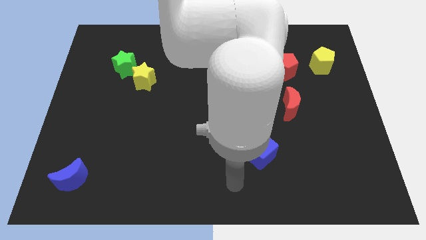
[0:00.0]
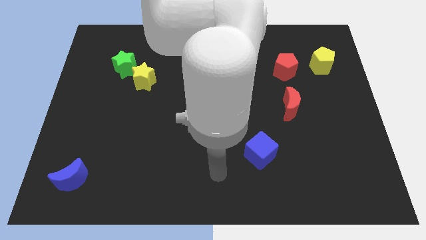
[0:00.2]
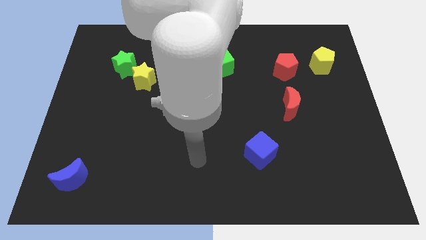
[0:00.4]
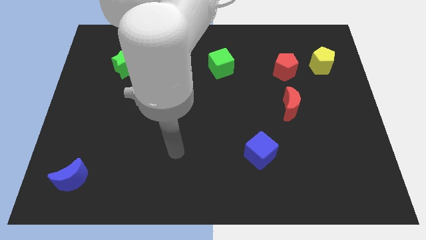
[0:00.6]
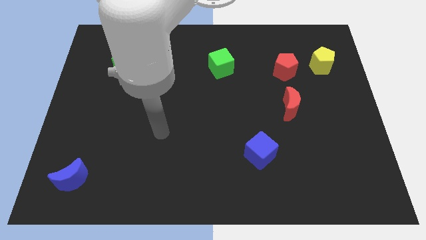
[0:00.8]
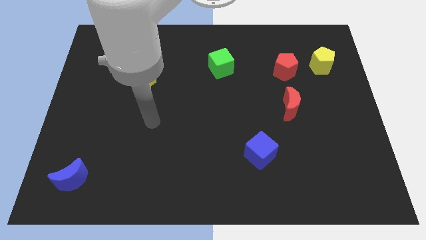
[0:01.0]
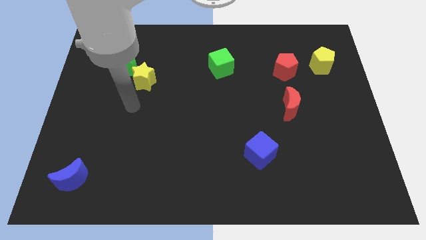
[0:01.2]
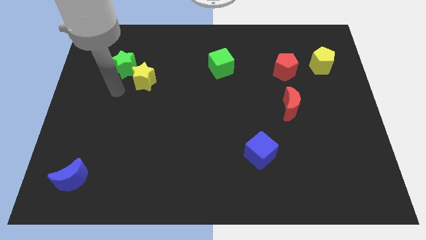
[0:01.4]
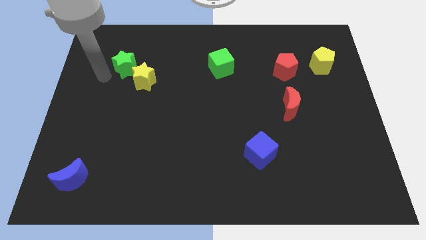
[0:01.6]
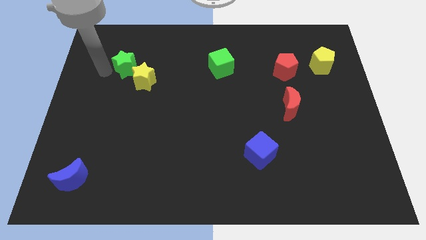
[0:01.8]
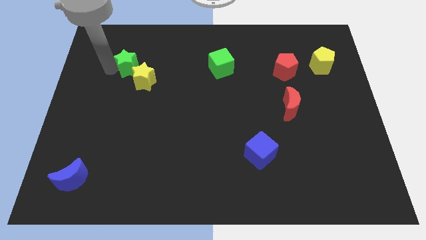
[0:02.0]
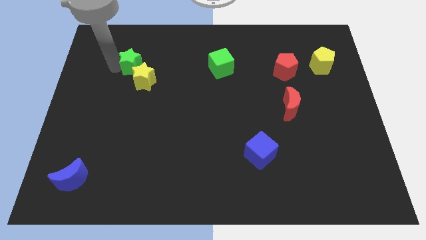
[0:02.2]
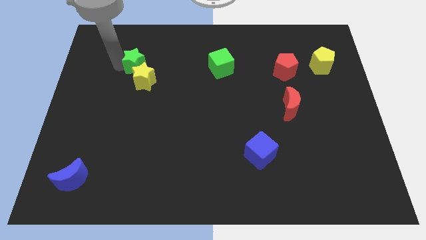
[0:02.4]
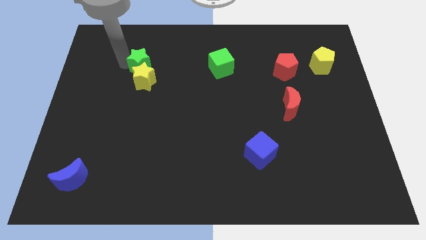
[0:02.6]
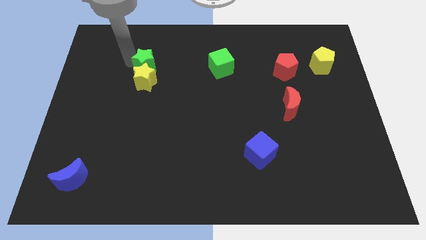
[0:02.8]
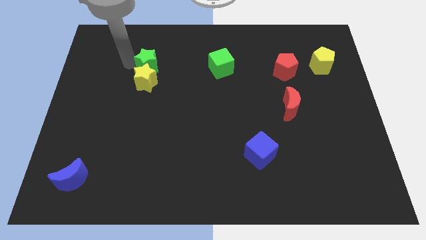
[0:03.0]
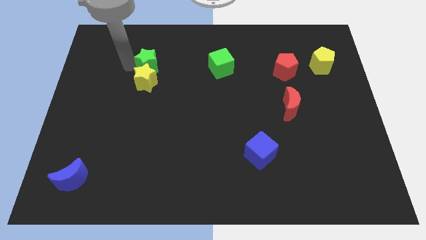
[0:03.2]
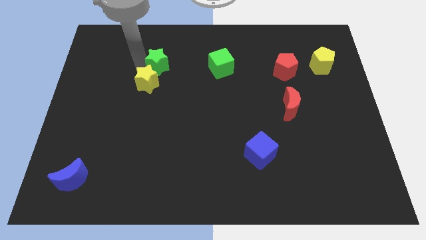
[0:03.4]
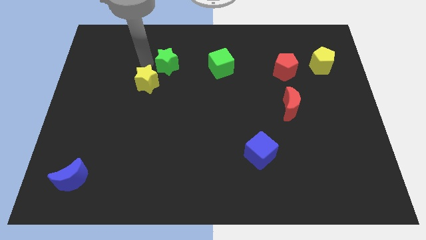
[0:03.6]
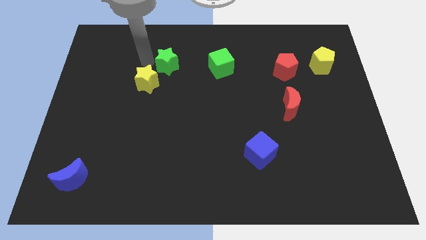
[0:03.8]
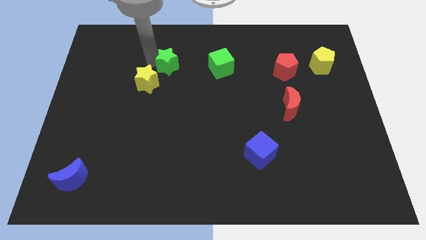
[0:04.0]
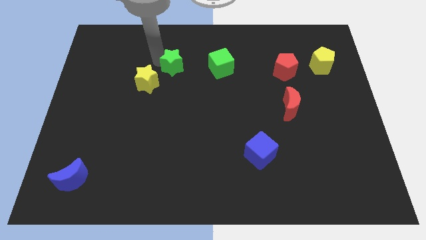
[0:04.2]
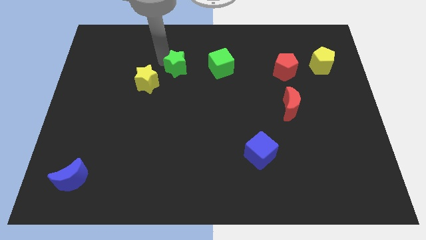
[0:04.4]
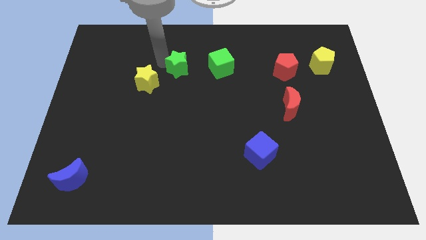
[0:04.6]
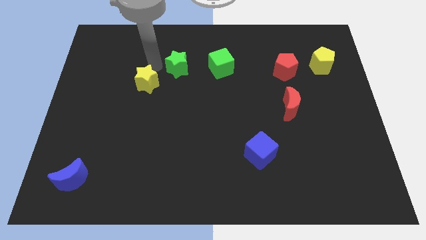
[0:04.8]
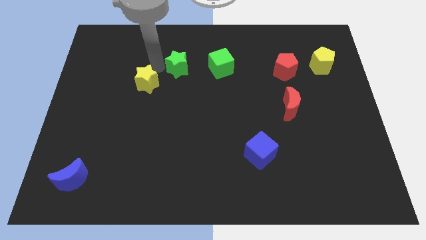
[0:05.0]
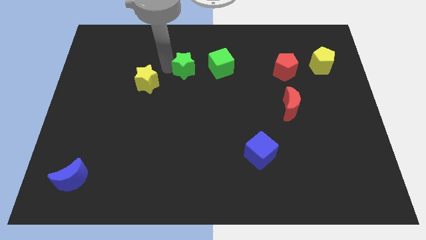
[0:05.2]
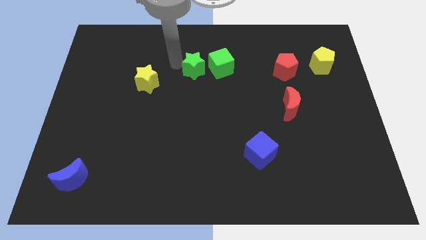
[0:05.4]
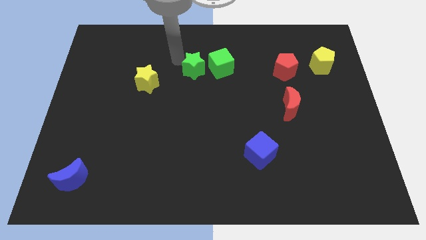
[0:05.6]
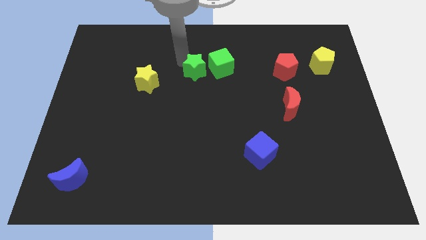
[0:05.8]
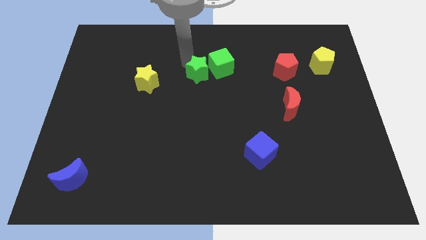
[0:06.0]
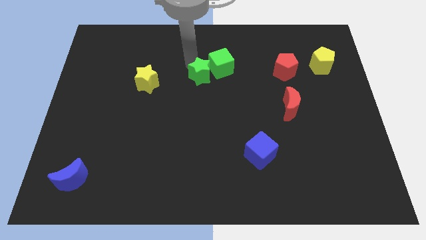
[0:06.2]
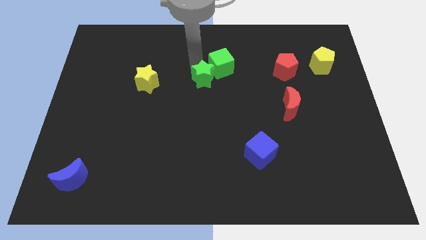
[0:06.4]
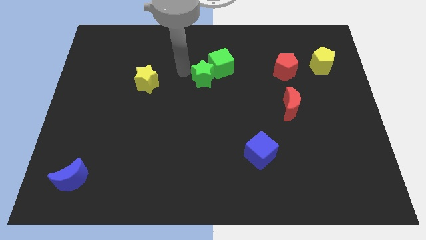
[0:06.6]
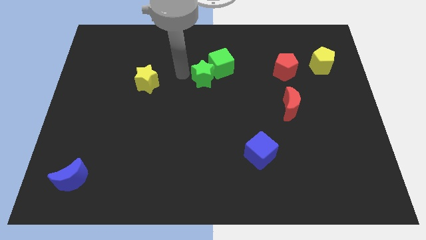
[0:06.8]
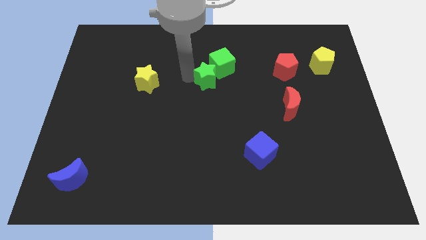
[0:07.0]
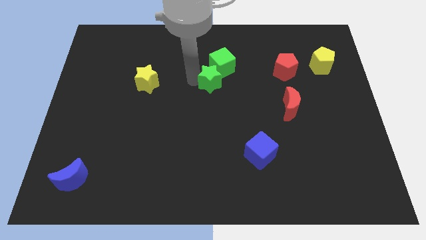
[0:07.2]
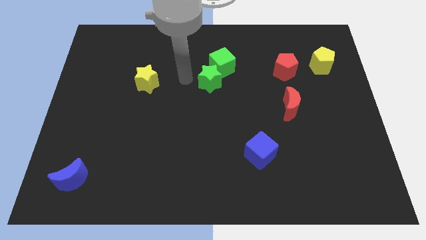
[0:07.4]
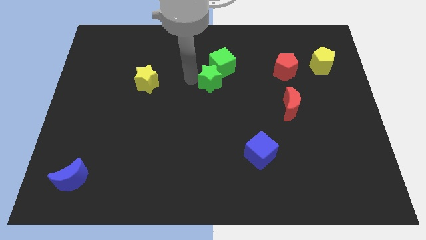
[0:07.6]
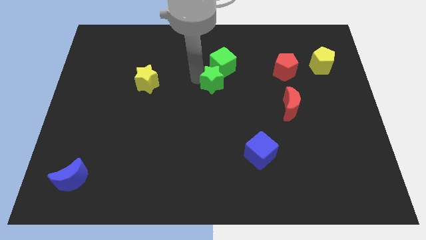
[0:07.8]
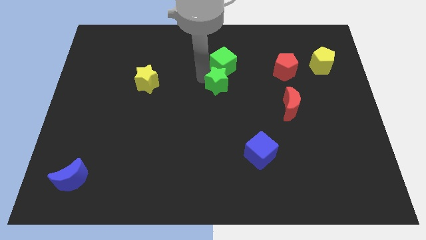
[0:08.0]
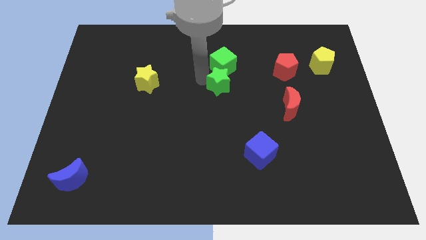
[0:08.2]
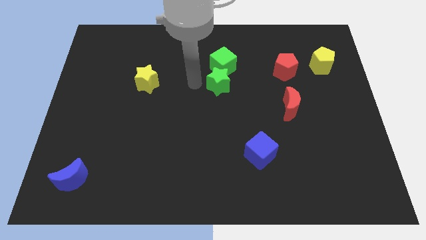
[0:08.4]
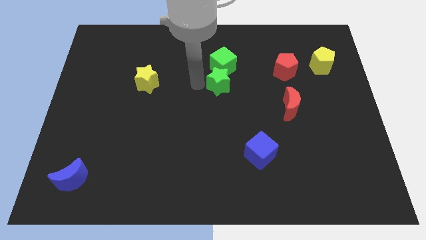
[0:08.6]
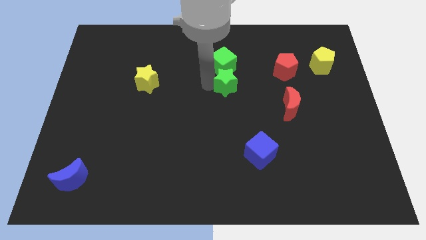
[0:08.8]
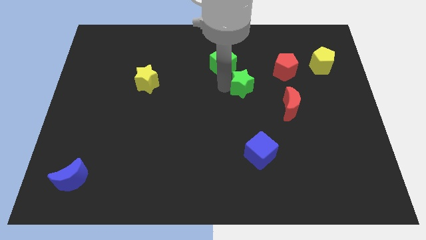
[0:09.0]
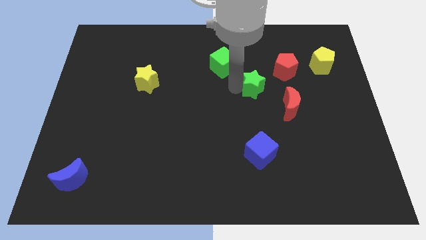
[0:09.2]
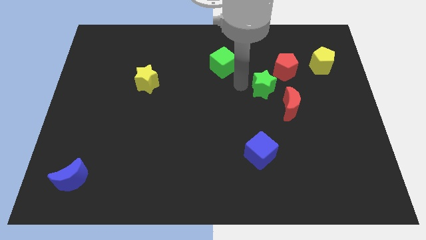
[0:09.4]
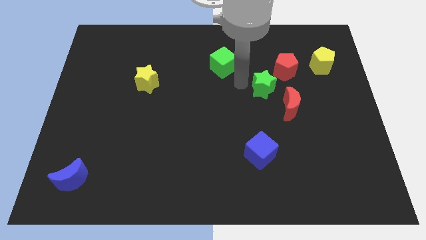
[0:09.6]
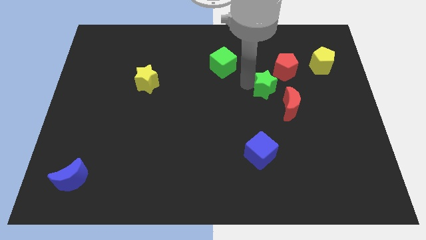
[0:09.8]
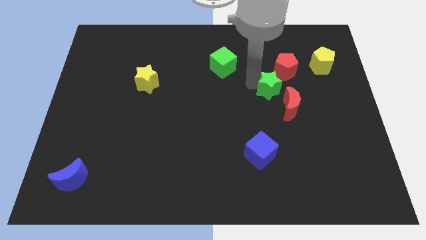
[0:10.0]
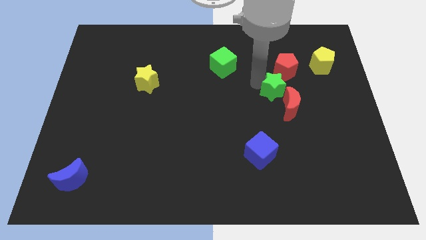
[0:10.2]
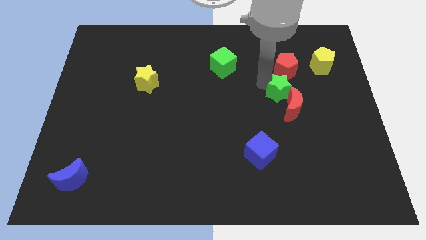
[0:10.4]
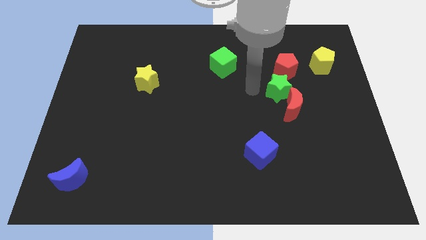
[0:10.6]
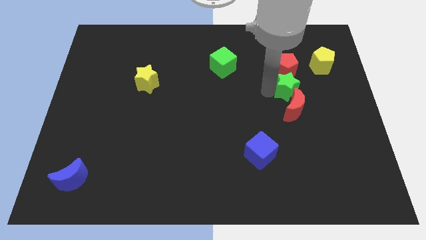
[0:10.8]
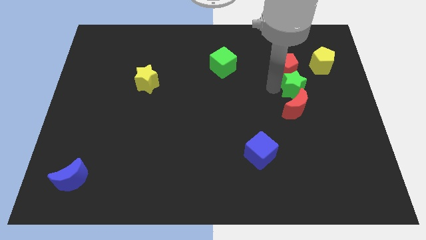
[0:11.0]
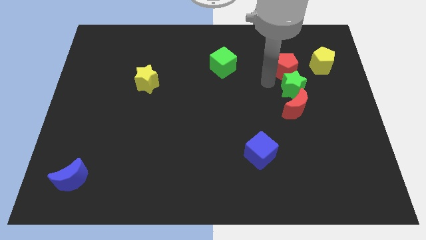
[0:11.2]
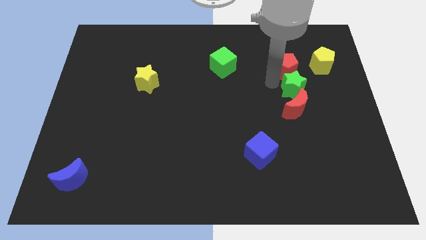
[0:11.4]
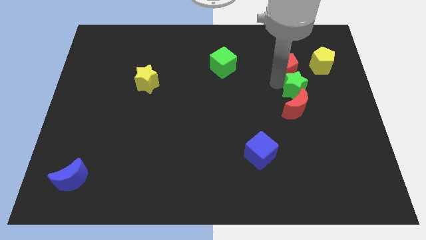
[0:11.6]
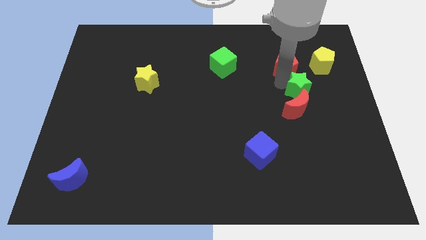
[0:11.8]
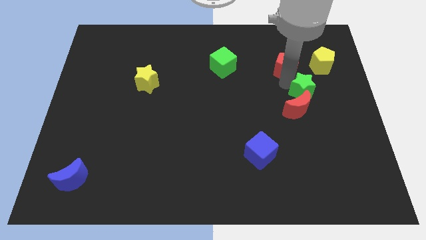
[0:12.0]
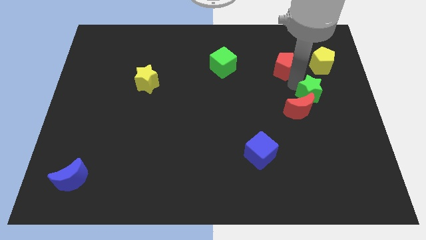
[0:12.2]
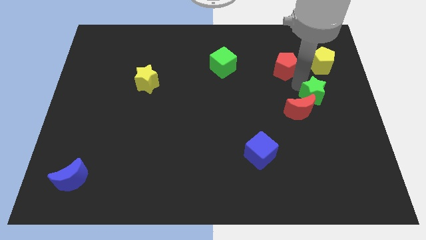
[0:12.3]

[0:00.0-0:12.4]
move the green star to the right side of the red moon

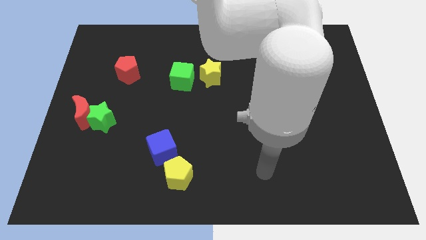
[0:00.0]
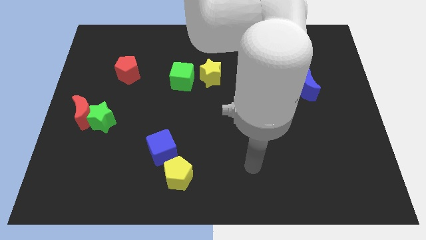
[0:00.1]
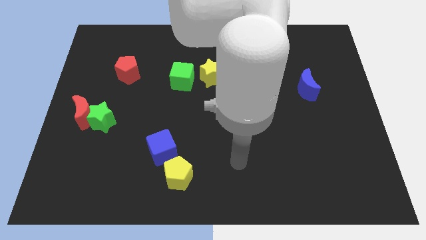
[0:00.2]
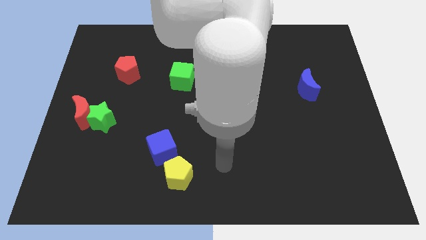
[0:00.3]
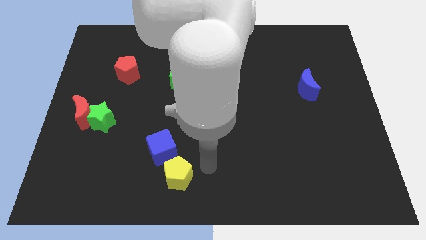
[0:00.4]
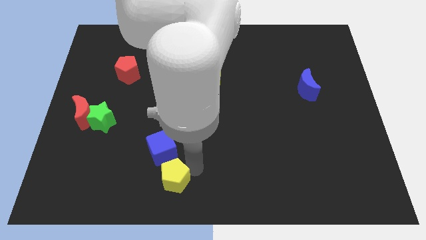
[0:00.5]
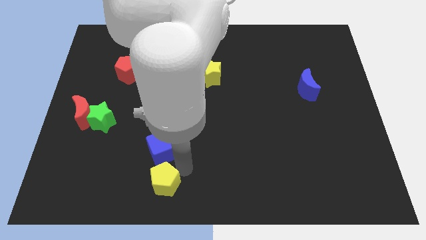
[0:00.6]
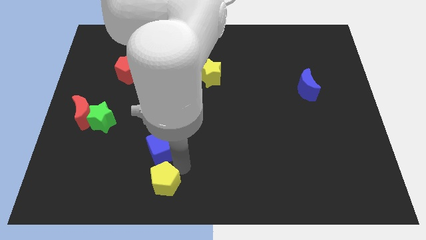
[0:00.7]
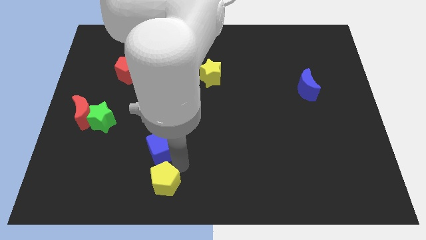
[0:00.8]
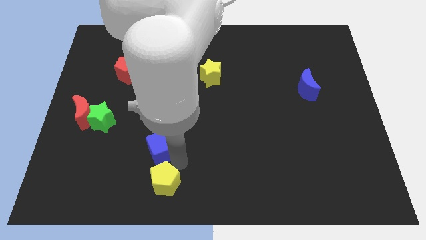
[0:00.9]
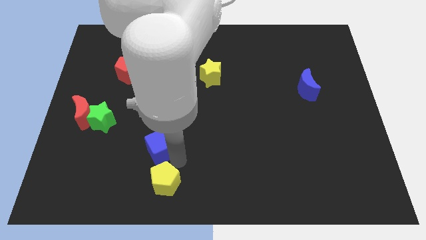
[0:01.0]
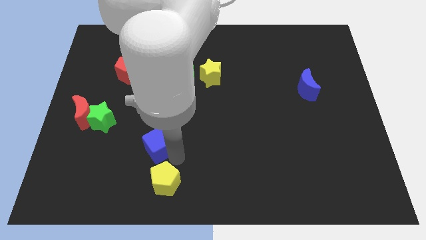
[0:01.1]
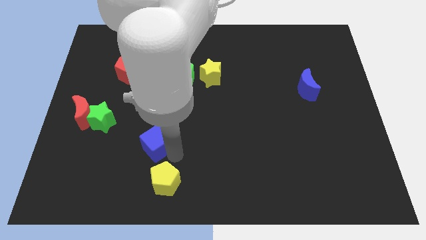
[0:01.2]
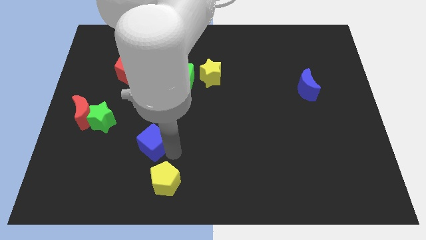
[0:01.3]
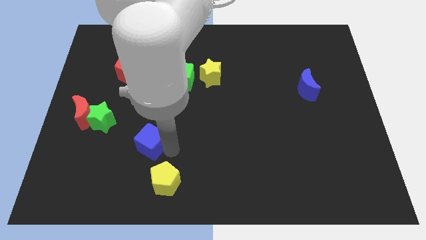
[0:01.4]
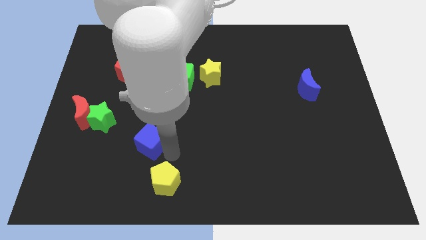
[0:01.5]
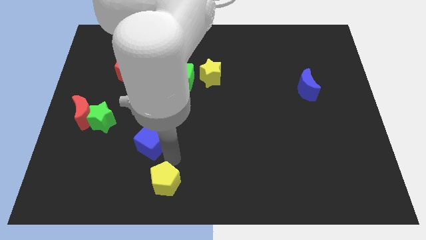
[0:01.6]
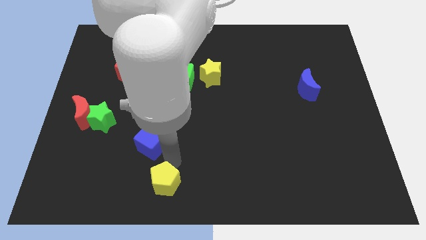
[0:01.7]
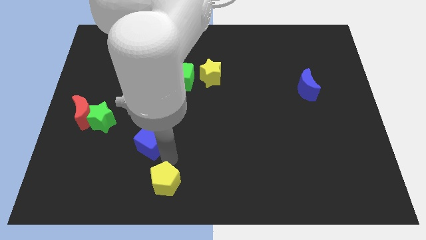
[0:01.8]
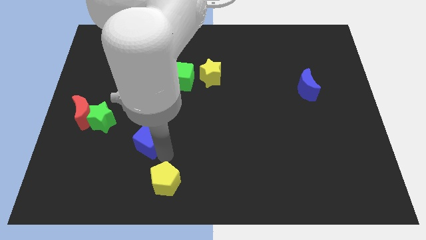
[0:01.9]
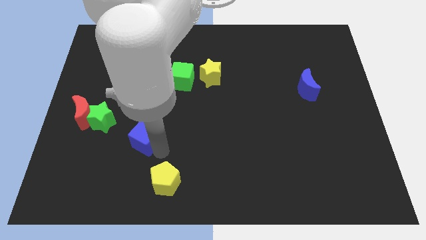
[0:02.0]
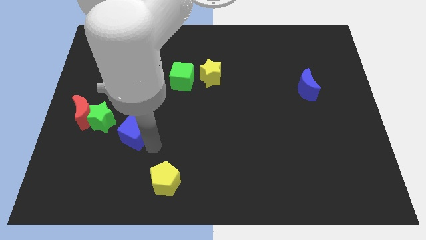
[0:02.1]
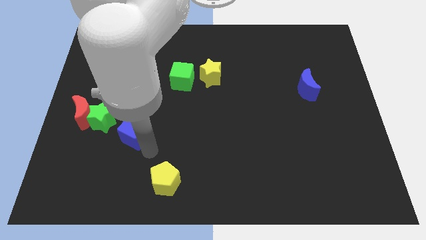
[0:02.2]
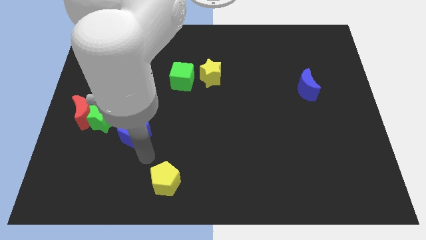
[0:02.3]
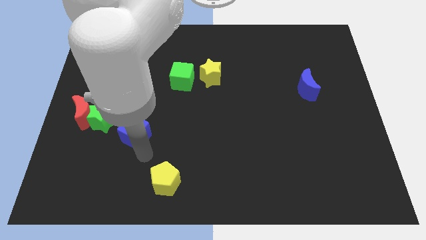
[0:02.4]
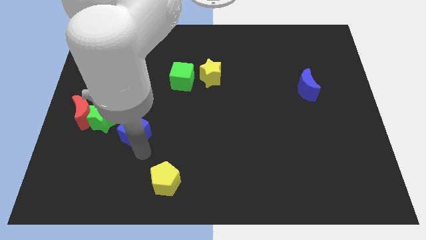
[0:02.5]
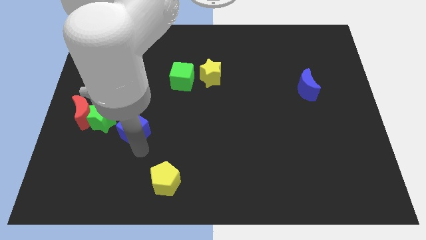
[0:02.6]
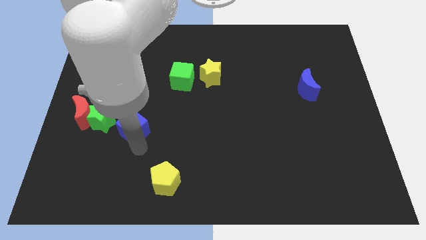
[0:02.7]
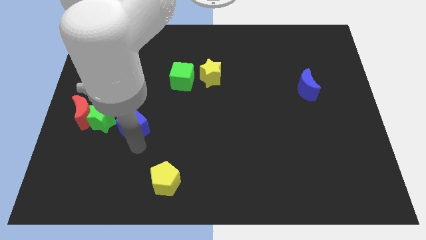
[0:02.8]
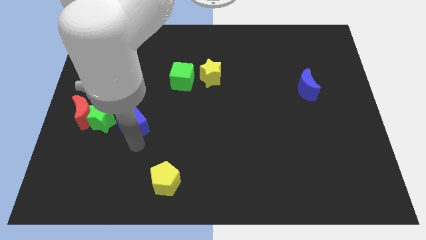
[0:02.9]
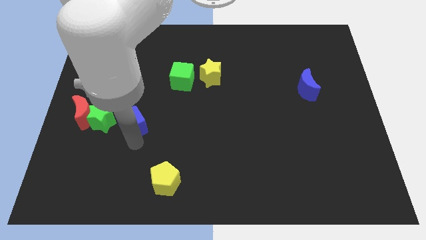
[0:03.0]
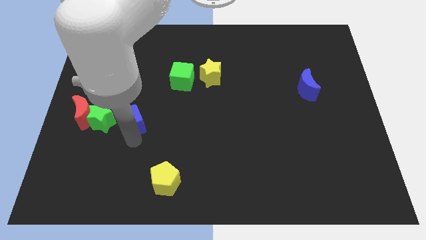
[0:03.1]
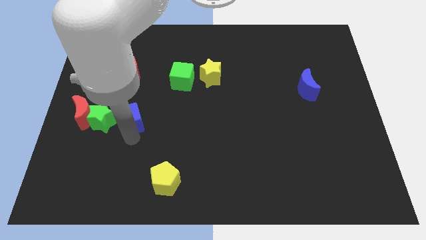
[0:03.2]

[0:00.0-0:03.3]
push the blue cube to the bottom of the red pentagon
